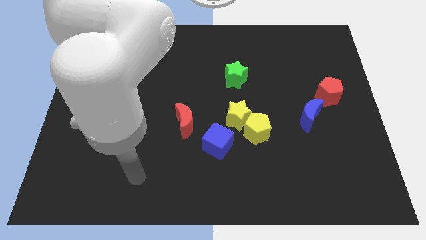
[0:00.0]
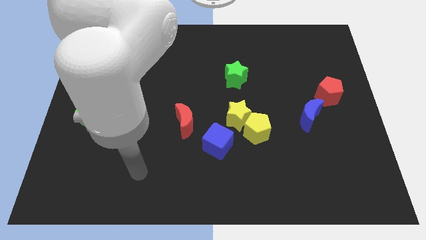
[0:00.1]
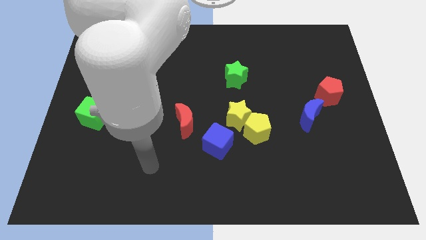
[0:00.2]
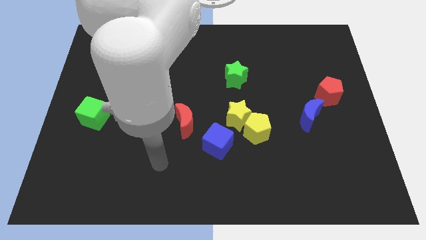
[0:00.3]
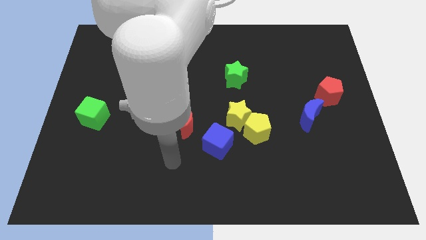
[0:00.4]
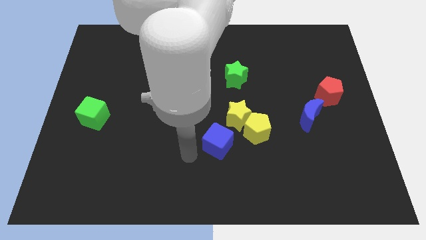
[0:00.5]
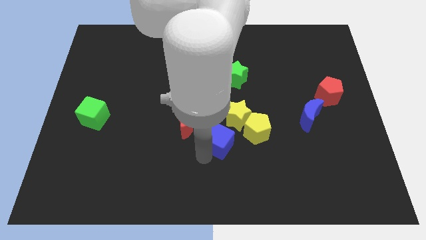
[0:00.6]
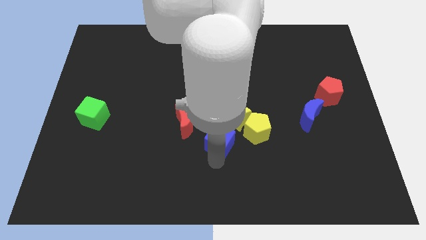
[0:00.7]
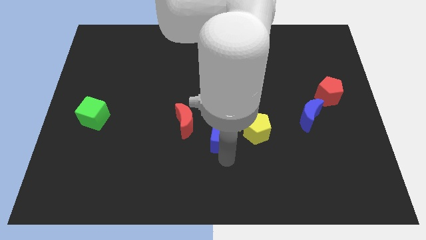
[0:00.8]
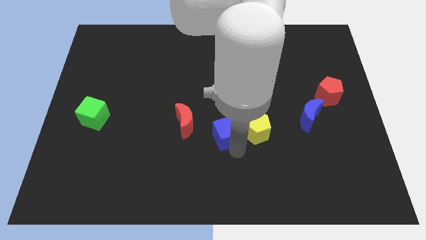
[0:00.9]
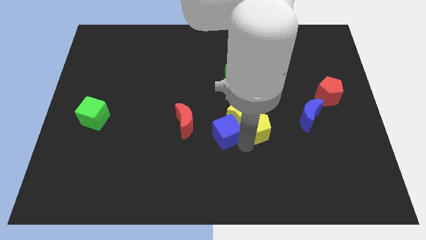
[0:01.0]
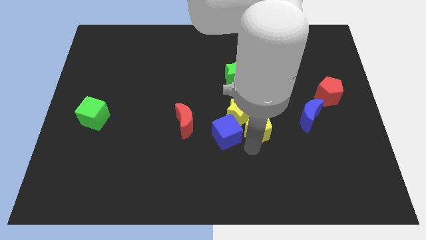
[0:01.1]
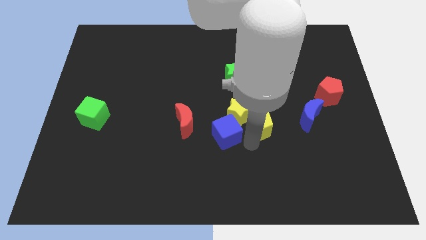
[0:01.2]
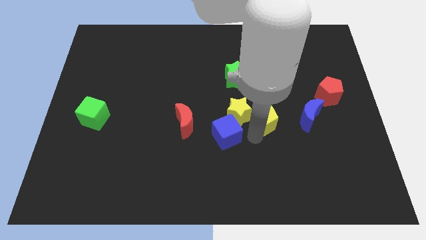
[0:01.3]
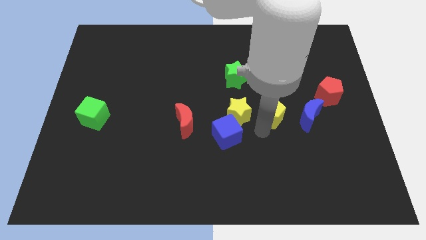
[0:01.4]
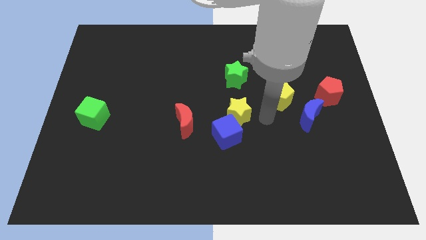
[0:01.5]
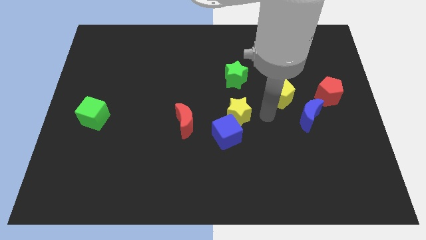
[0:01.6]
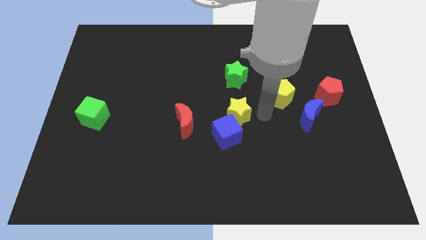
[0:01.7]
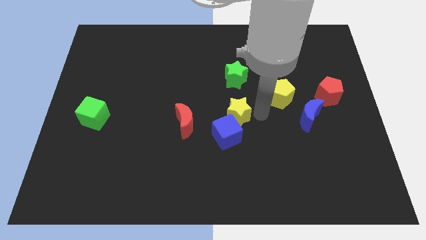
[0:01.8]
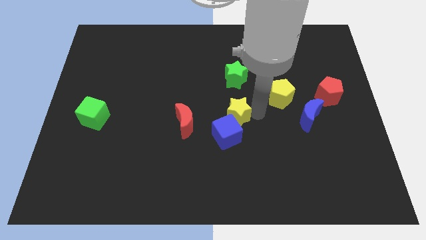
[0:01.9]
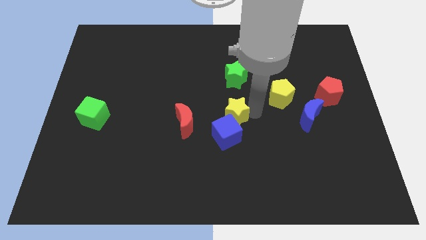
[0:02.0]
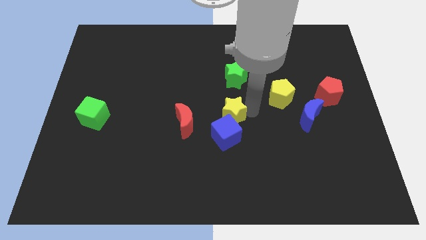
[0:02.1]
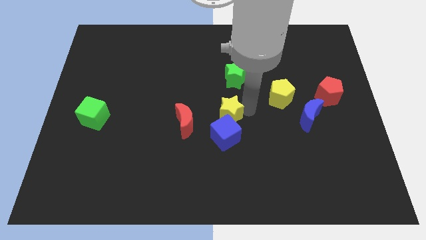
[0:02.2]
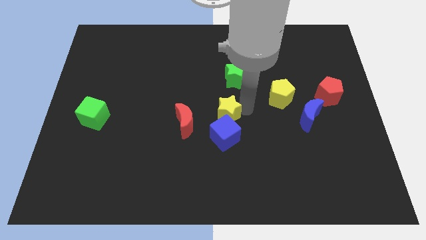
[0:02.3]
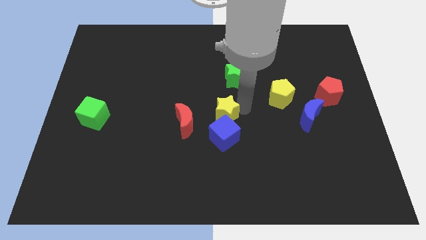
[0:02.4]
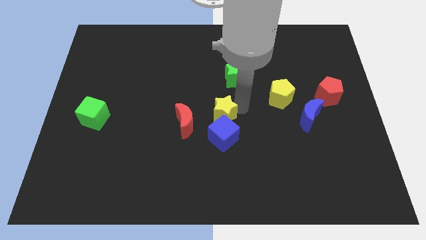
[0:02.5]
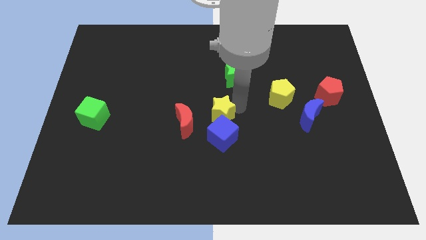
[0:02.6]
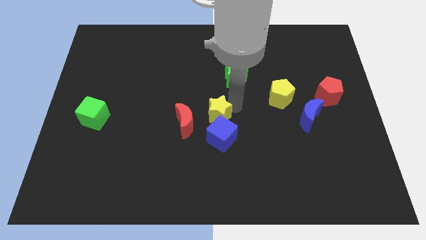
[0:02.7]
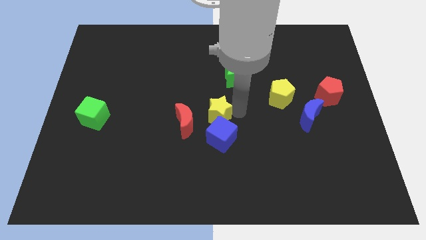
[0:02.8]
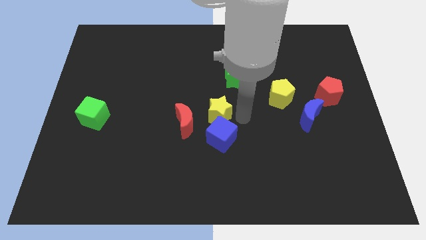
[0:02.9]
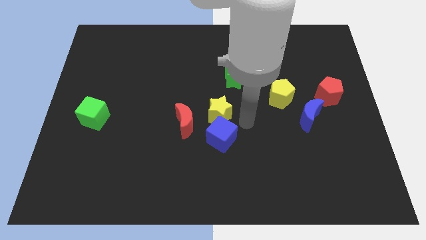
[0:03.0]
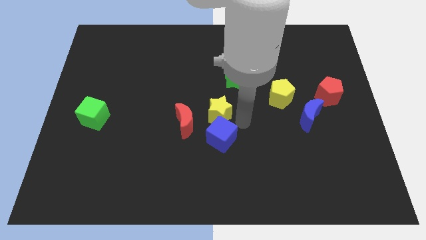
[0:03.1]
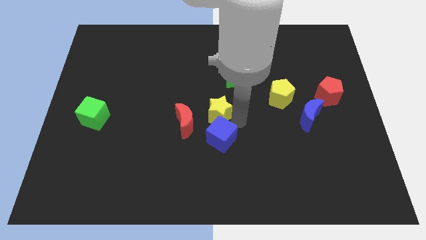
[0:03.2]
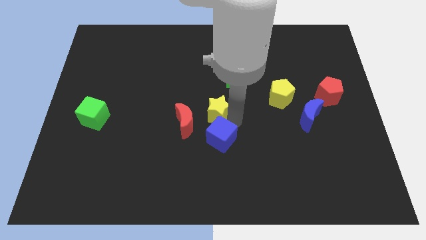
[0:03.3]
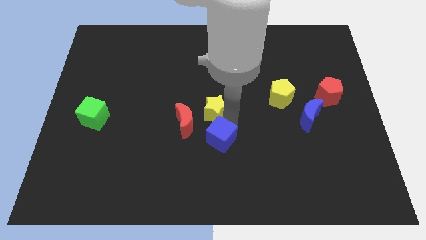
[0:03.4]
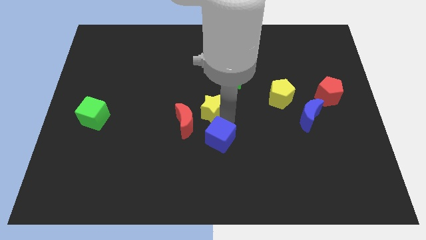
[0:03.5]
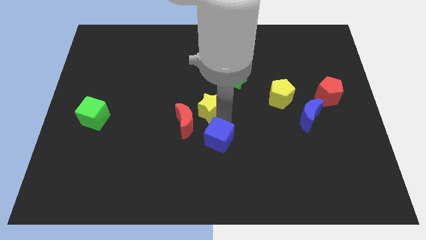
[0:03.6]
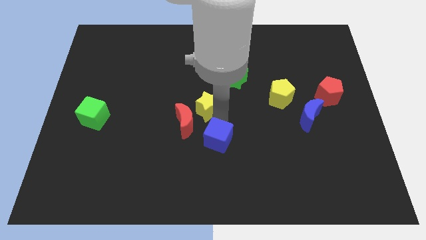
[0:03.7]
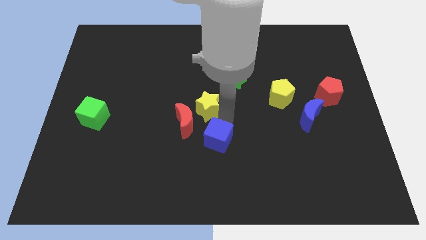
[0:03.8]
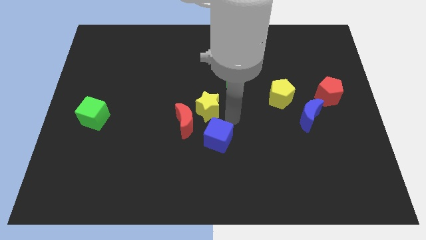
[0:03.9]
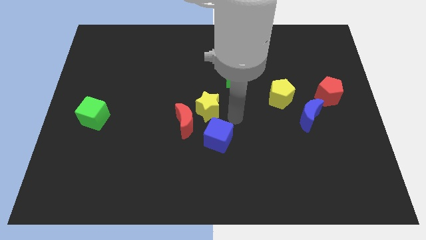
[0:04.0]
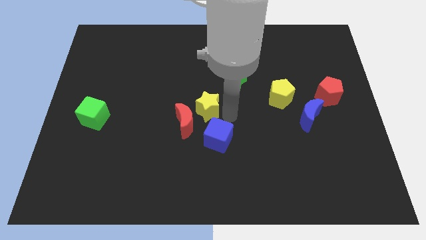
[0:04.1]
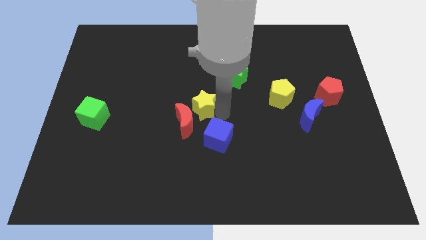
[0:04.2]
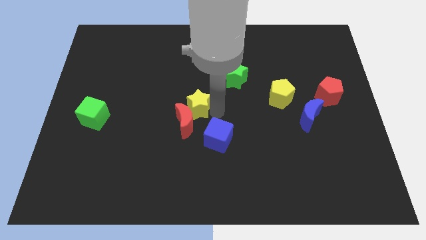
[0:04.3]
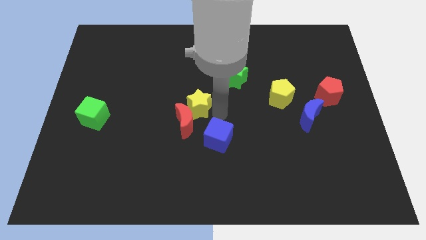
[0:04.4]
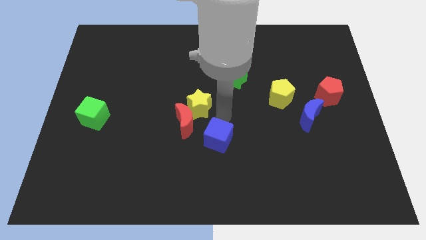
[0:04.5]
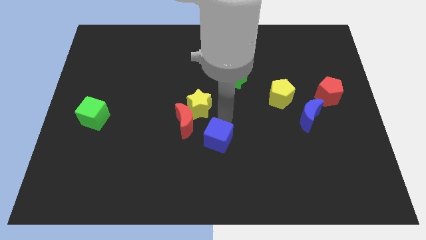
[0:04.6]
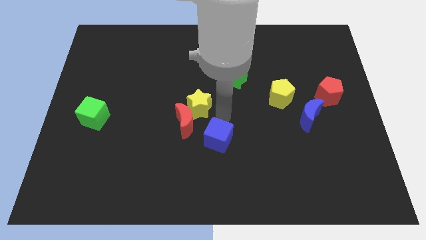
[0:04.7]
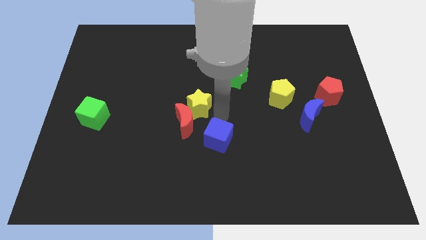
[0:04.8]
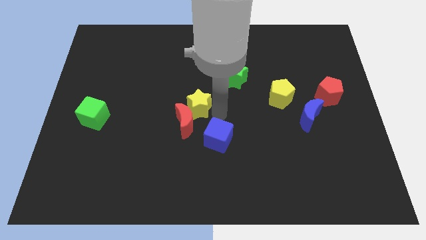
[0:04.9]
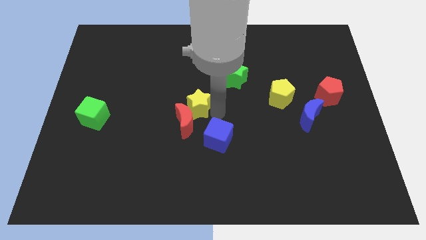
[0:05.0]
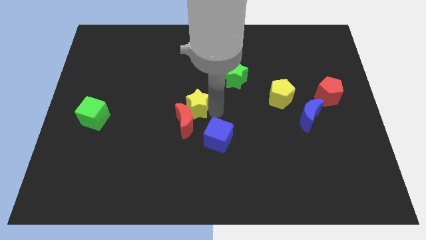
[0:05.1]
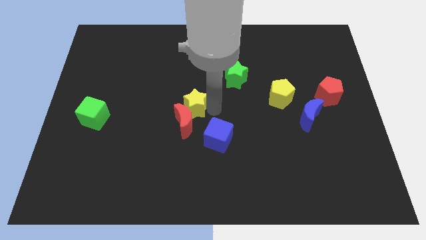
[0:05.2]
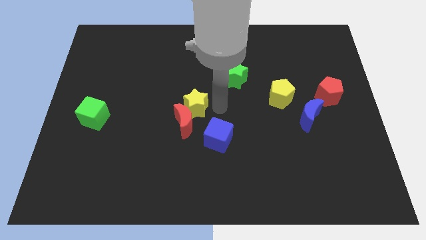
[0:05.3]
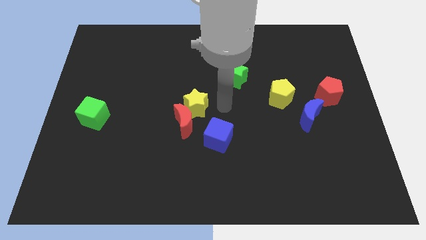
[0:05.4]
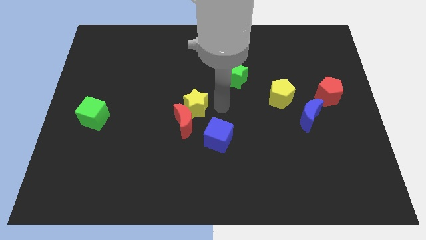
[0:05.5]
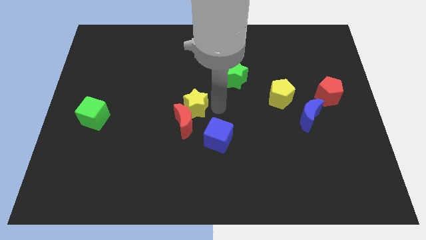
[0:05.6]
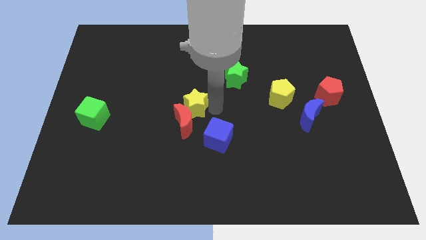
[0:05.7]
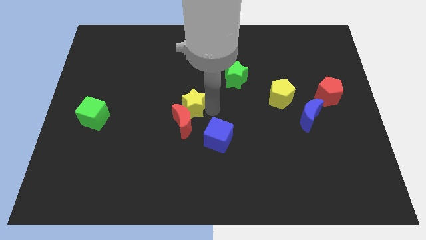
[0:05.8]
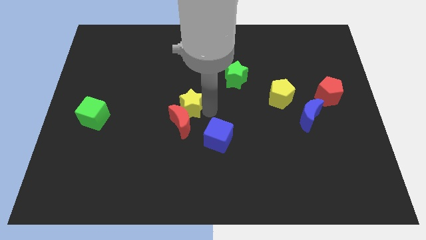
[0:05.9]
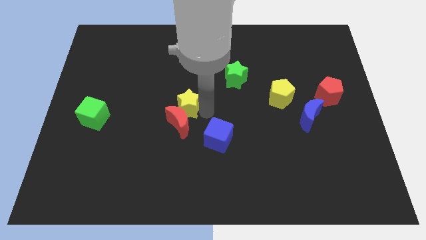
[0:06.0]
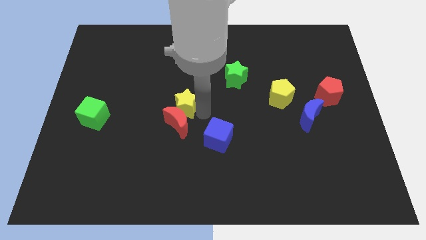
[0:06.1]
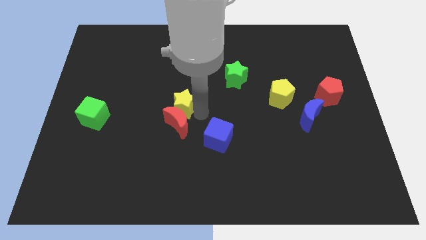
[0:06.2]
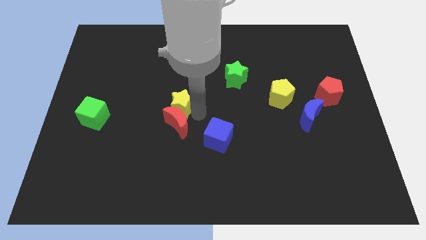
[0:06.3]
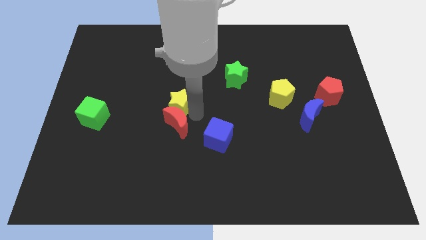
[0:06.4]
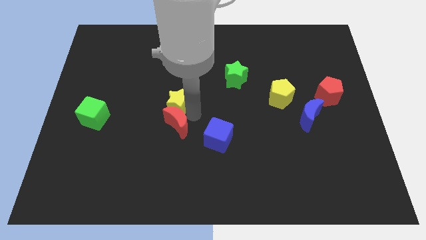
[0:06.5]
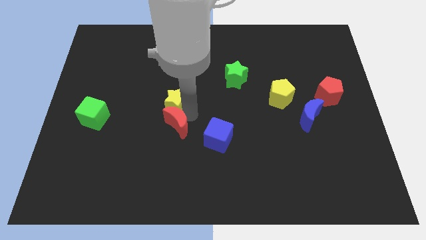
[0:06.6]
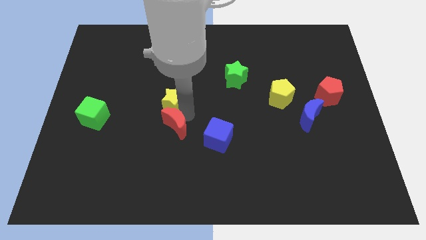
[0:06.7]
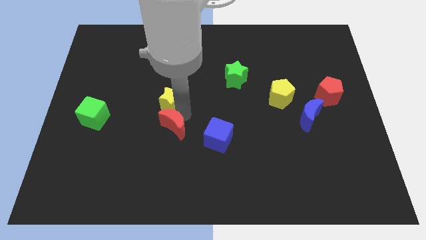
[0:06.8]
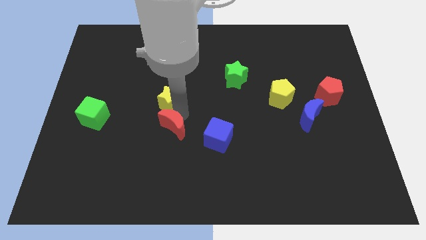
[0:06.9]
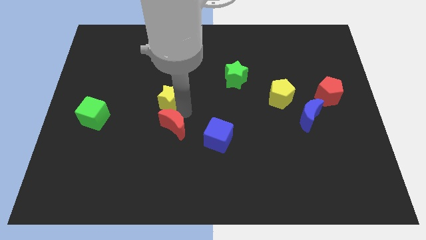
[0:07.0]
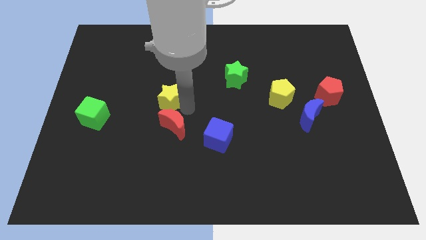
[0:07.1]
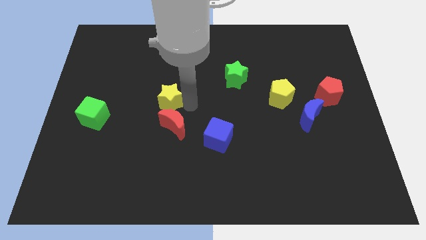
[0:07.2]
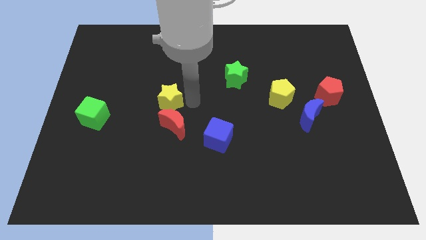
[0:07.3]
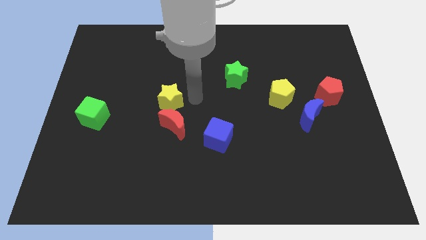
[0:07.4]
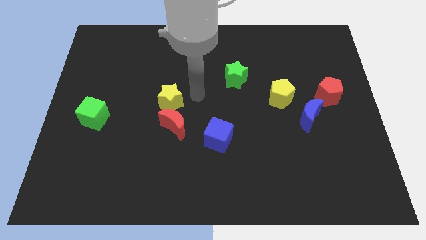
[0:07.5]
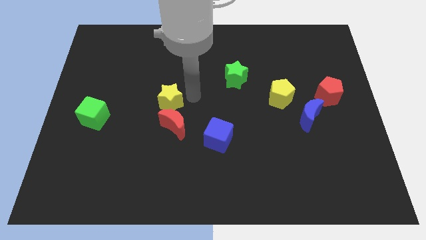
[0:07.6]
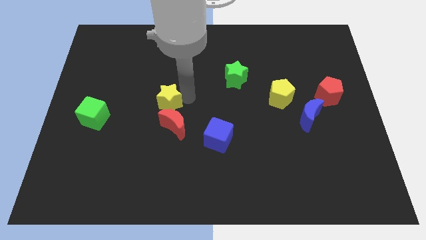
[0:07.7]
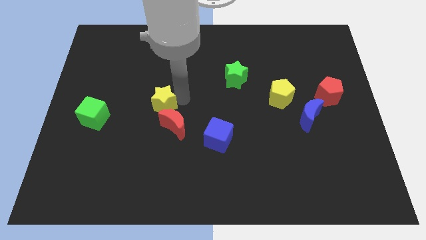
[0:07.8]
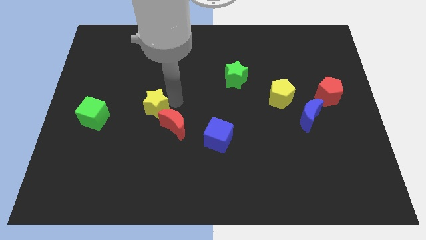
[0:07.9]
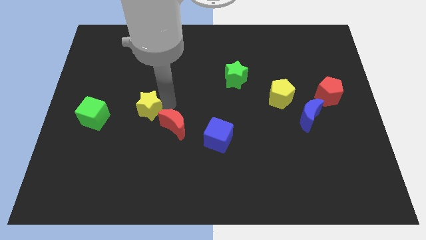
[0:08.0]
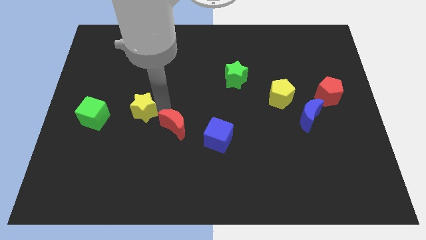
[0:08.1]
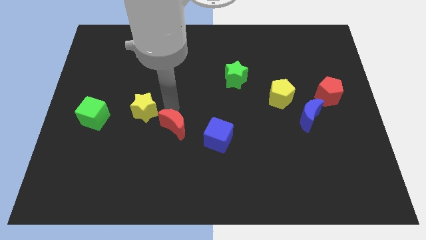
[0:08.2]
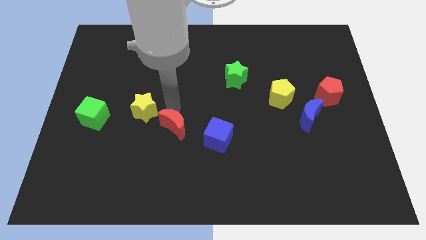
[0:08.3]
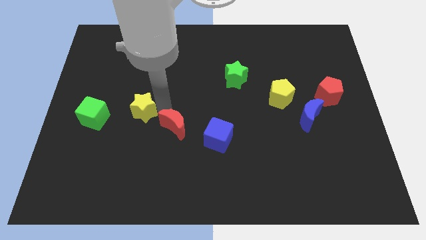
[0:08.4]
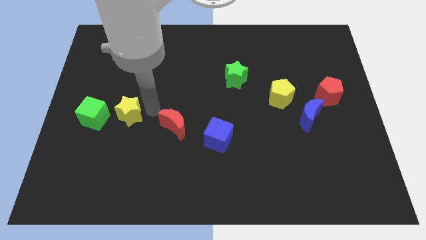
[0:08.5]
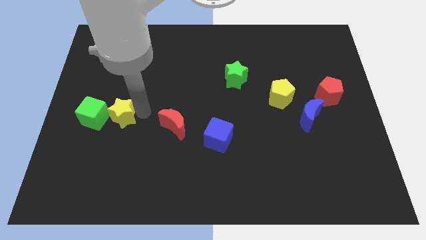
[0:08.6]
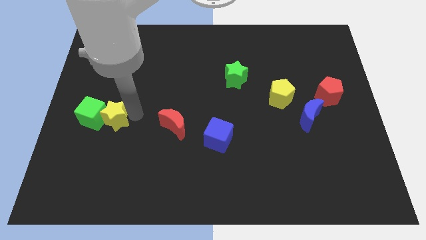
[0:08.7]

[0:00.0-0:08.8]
slide the yellow star next to the green cube
